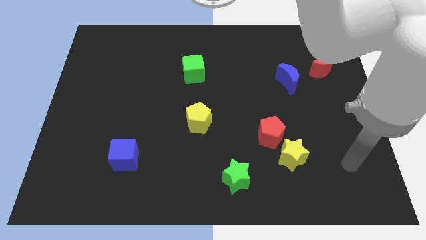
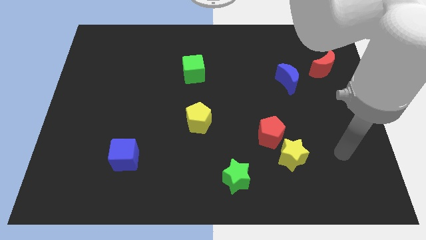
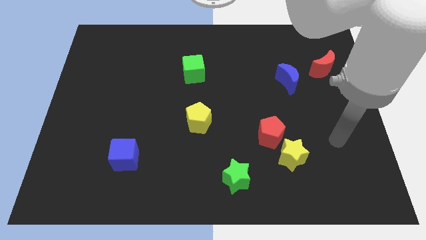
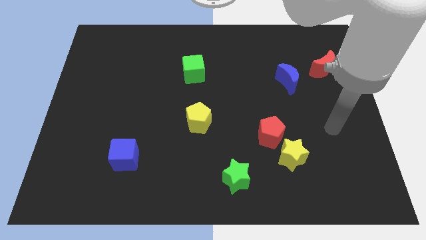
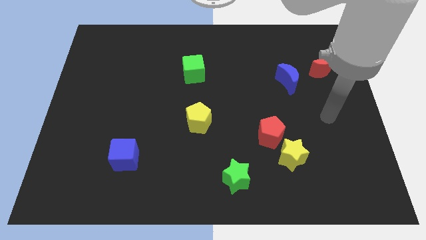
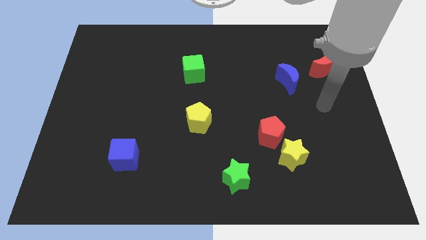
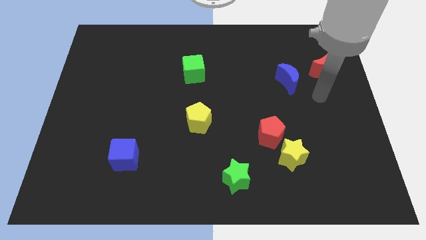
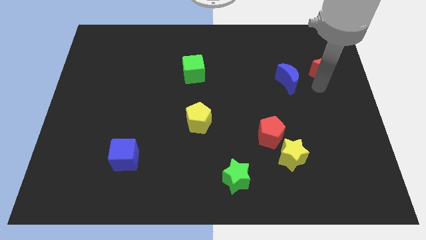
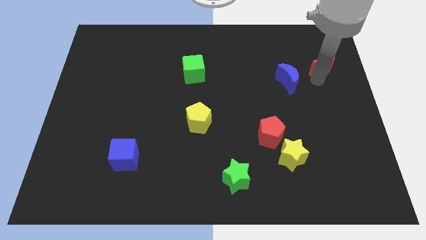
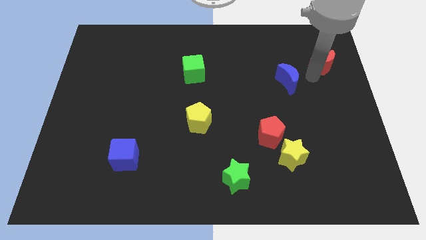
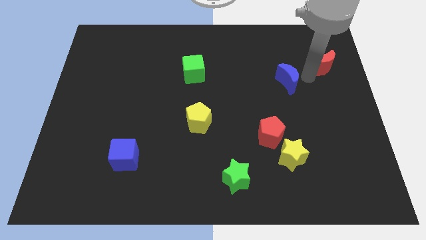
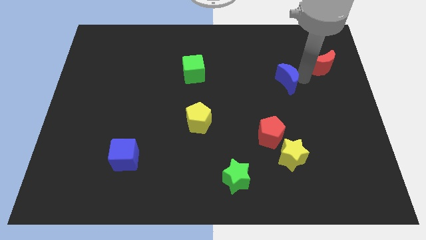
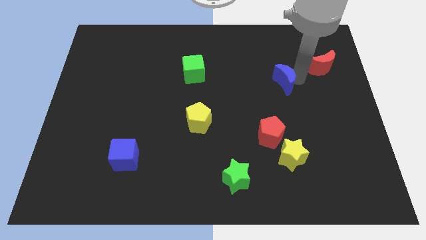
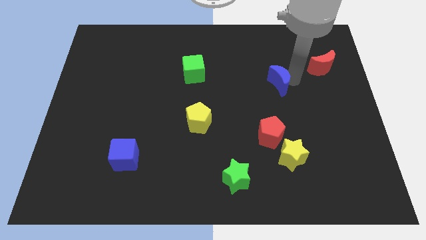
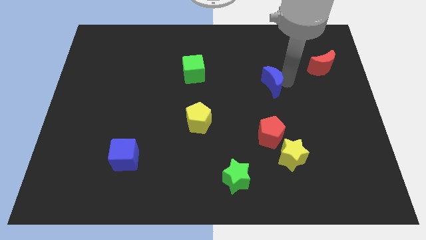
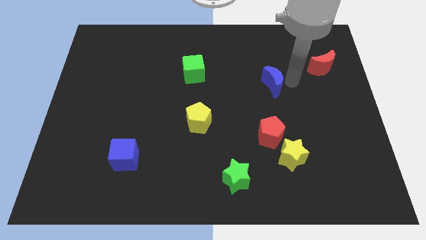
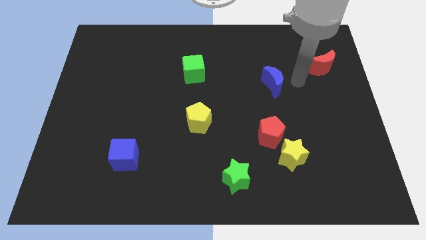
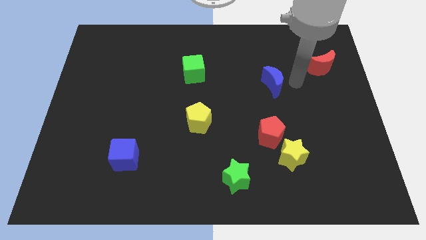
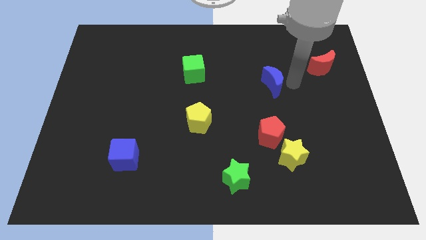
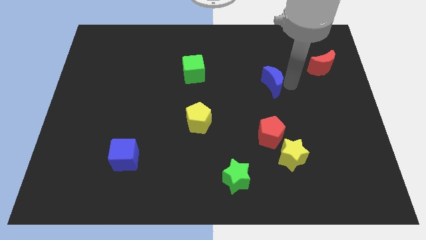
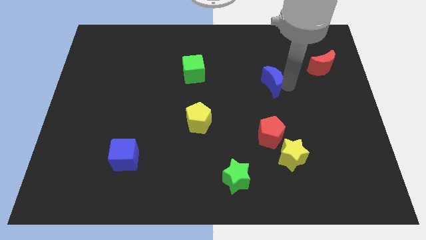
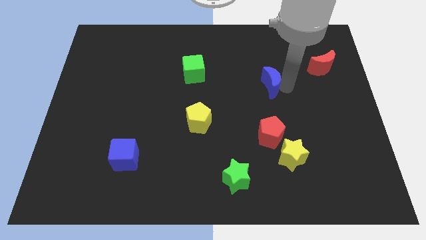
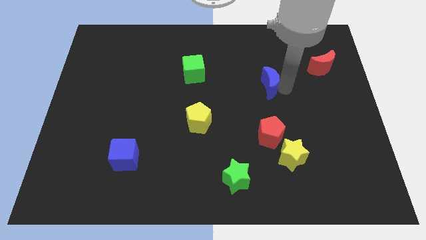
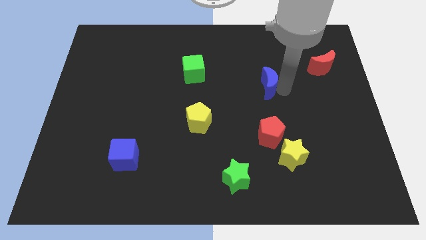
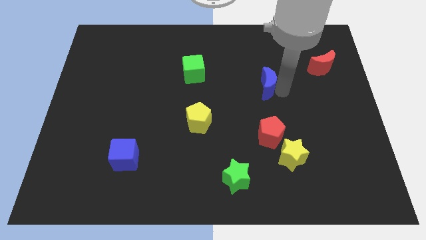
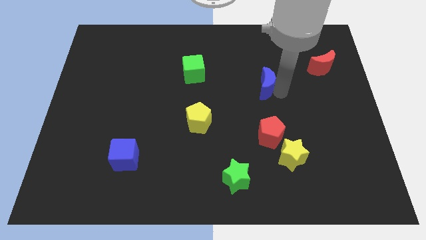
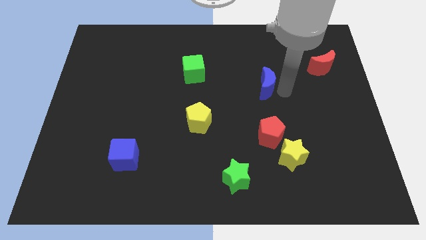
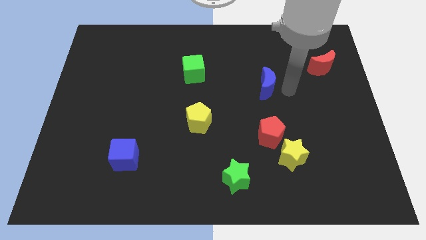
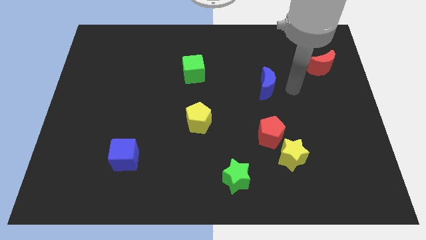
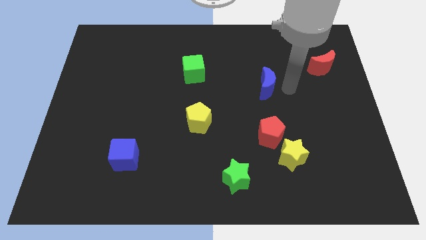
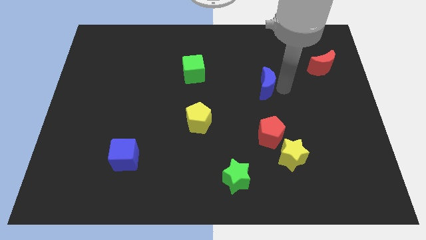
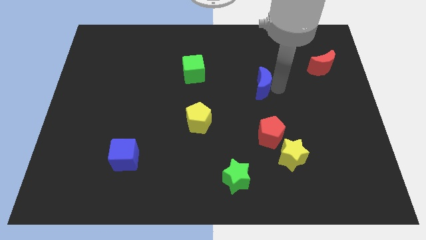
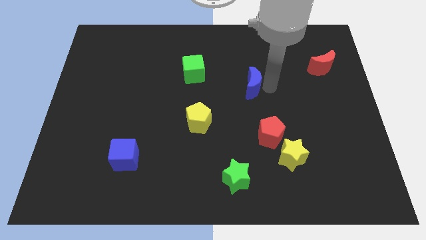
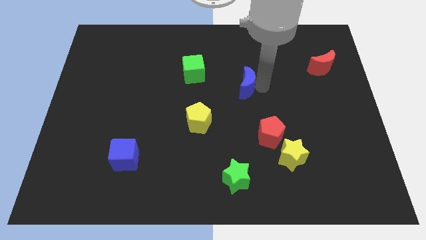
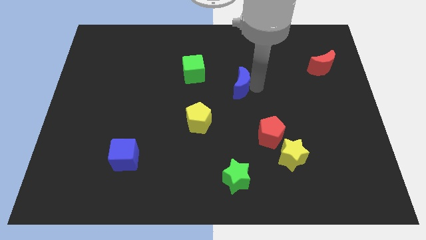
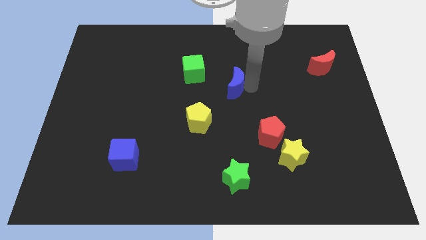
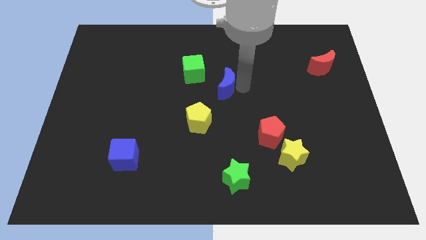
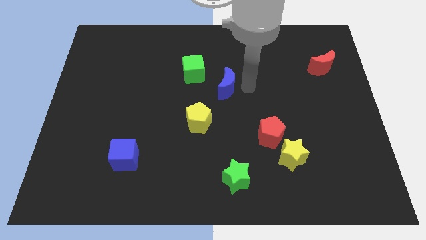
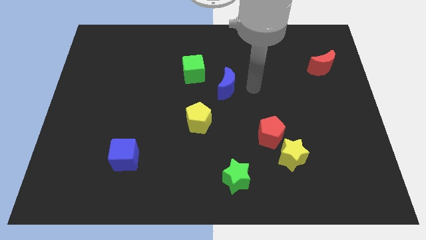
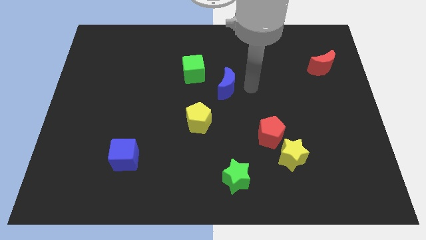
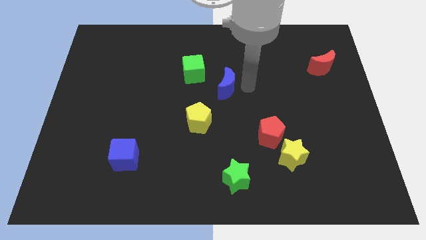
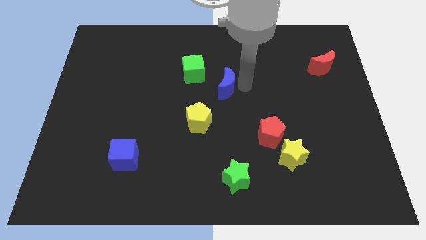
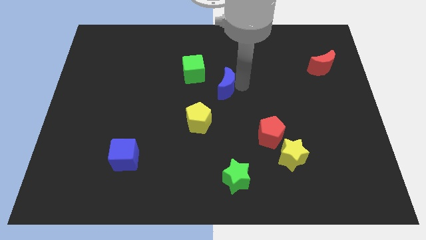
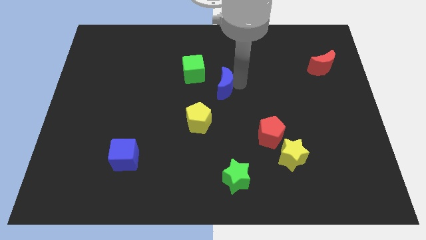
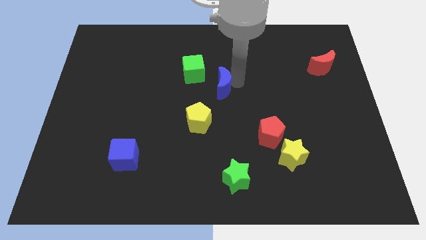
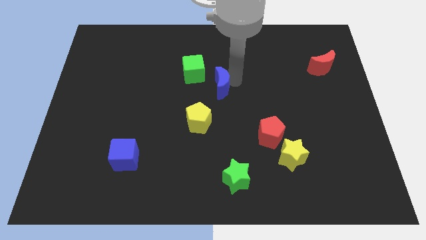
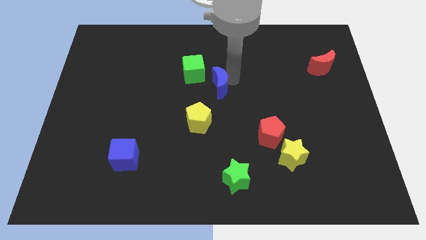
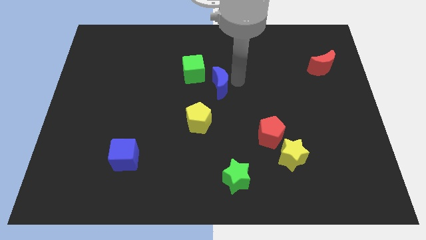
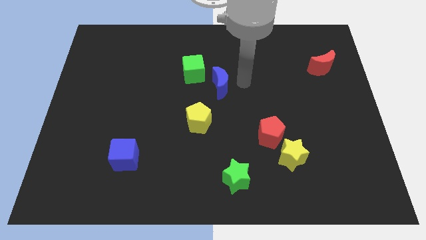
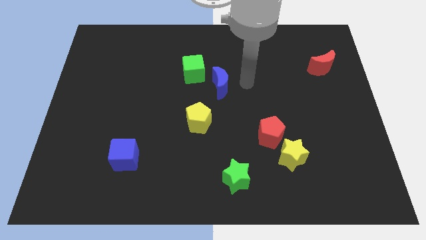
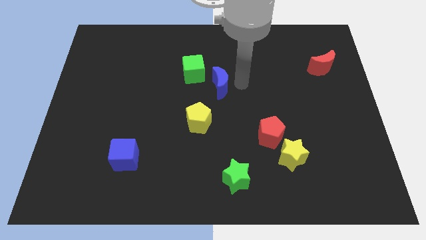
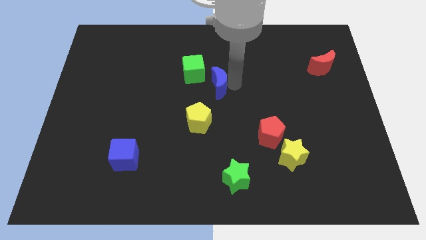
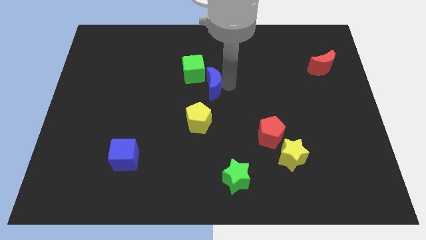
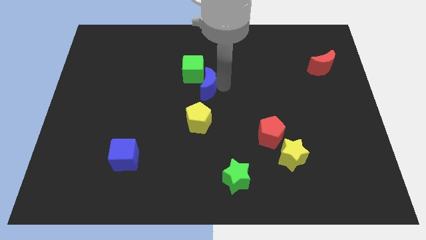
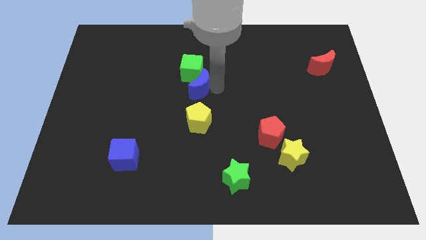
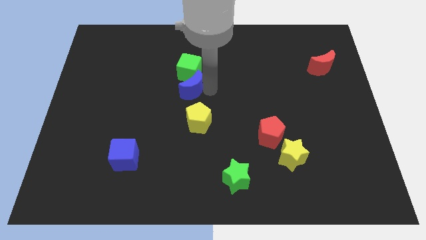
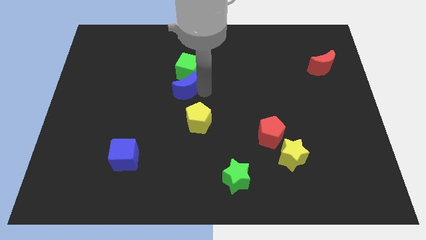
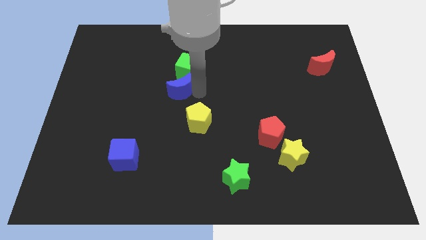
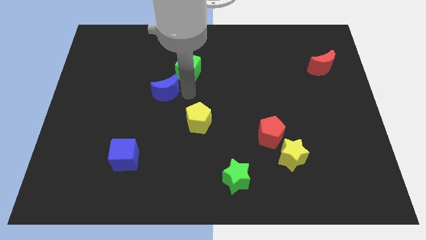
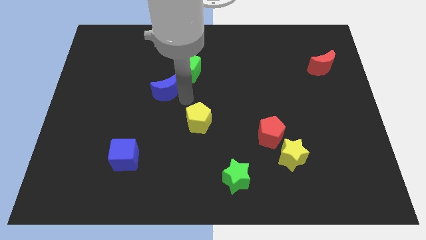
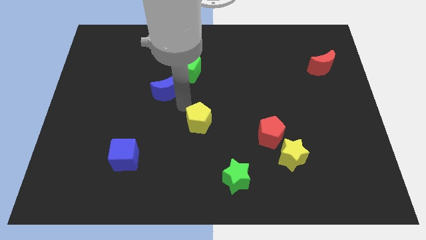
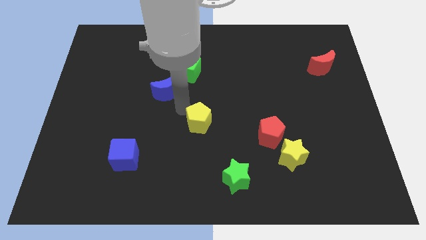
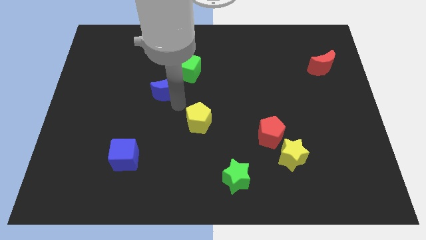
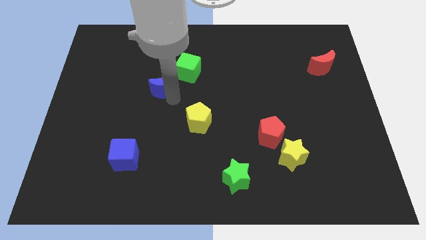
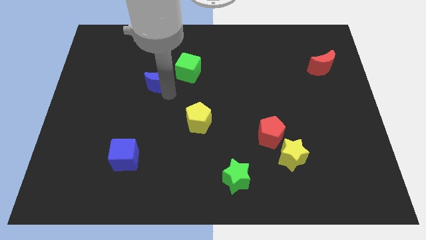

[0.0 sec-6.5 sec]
put the blue moon left of the green cube
